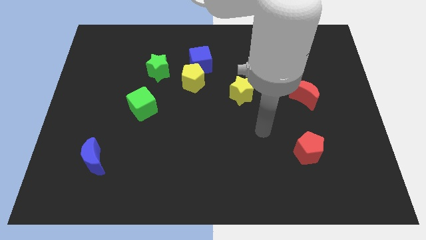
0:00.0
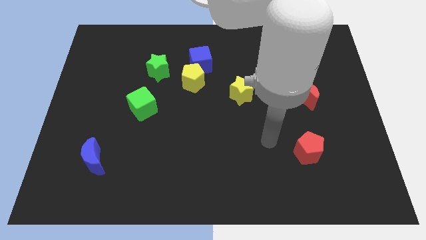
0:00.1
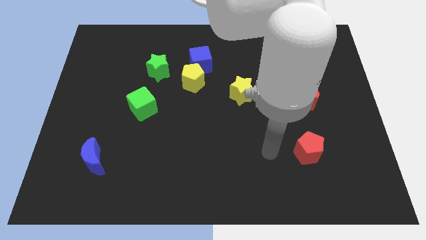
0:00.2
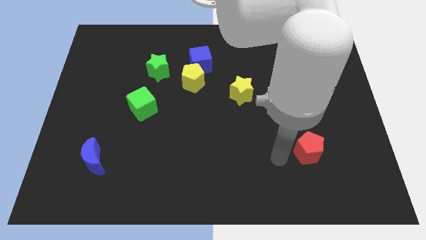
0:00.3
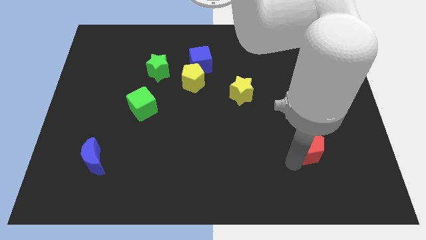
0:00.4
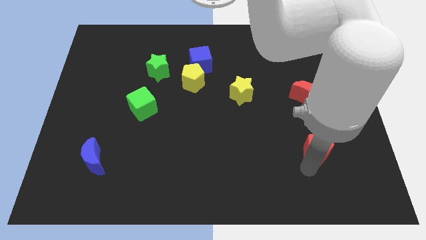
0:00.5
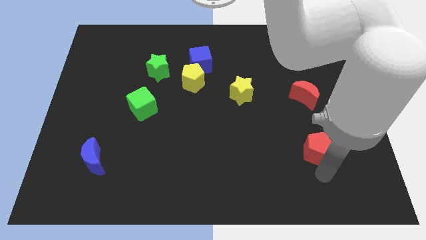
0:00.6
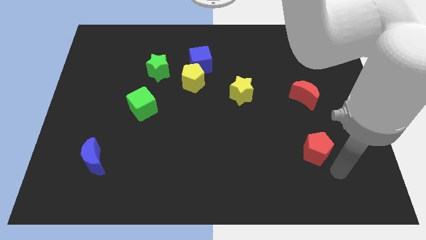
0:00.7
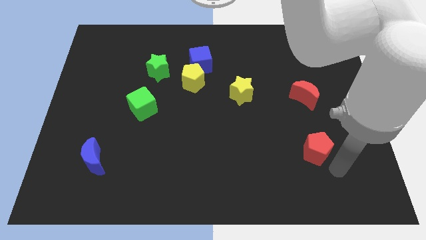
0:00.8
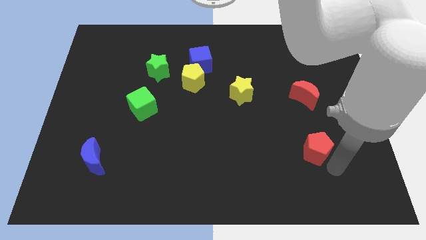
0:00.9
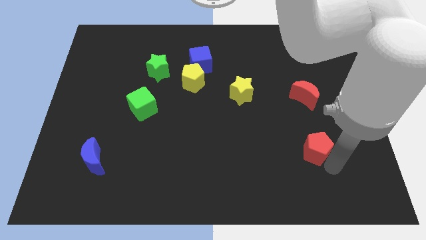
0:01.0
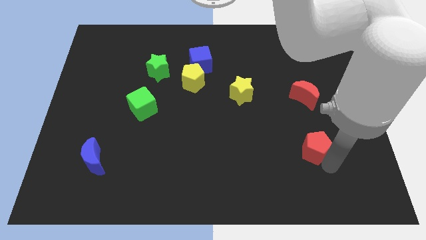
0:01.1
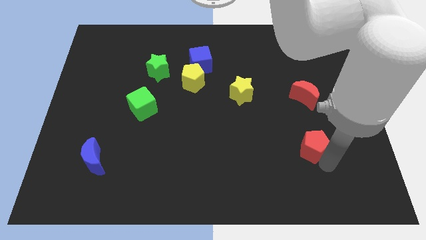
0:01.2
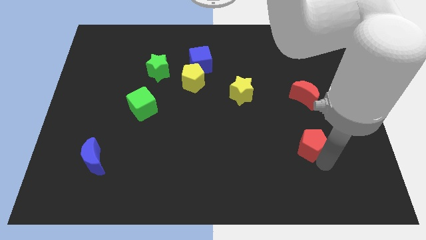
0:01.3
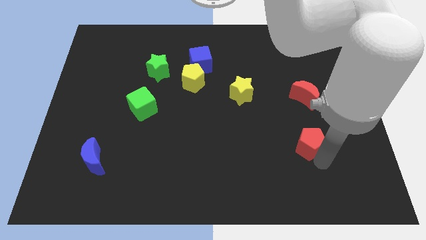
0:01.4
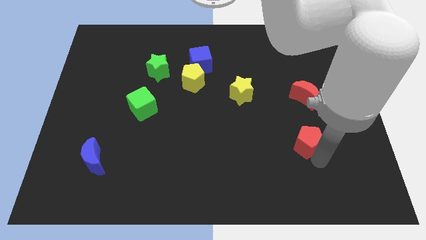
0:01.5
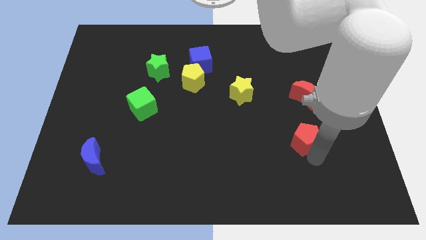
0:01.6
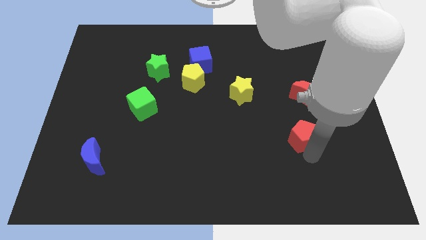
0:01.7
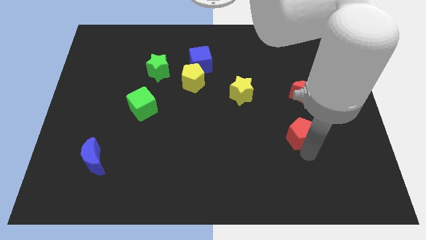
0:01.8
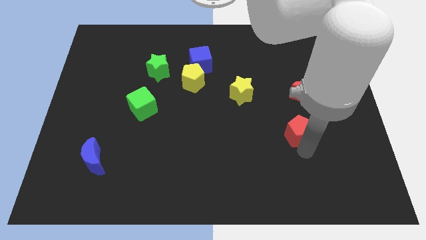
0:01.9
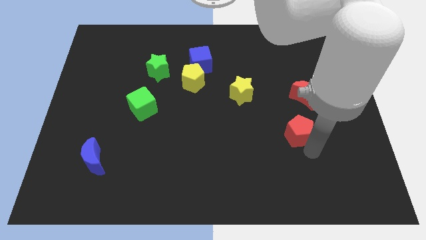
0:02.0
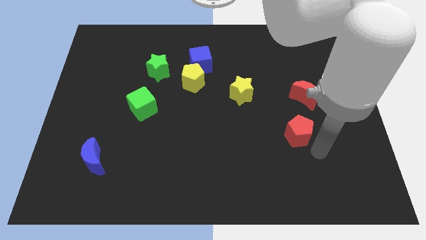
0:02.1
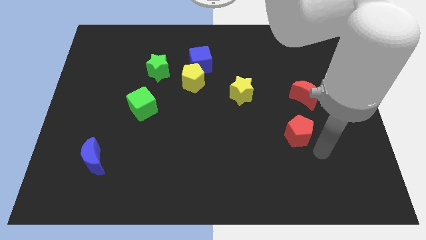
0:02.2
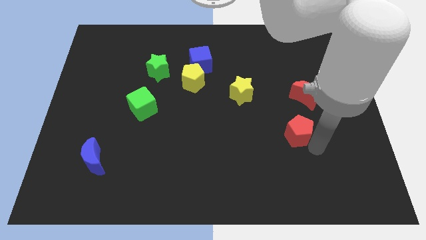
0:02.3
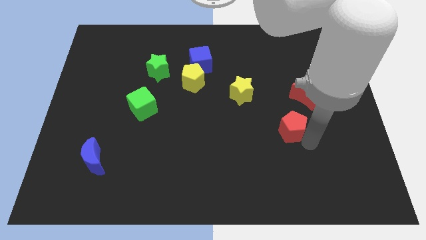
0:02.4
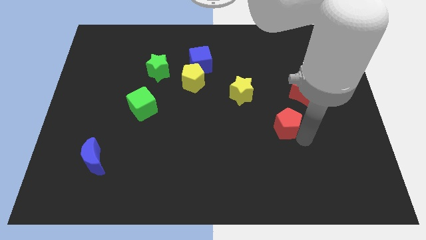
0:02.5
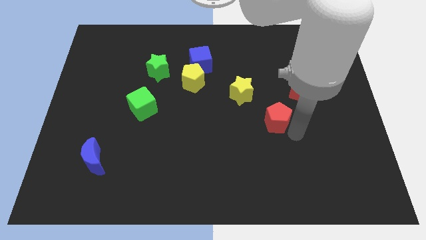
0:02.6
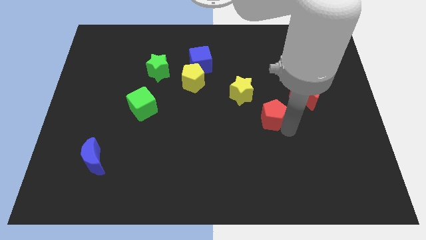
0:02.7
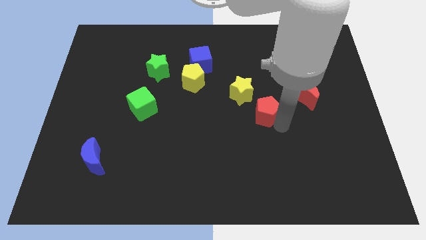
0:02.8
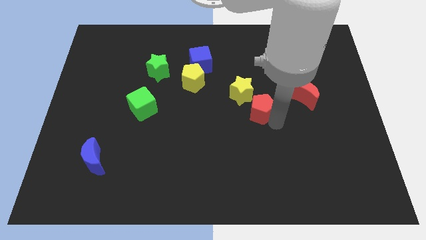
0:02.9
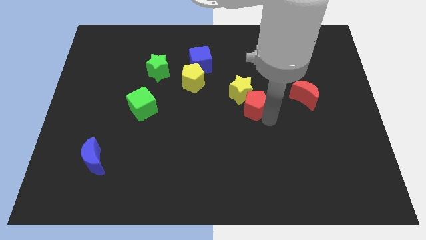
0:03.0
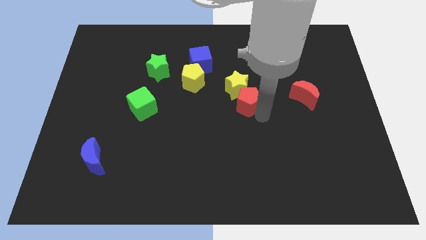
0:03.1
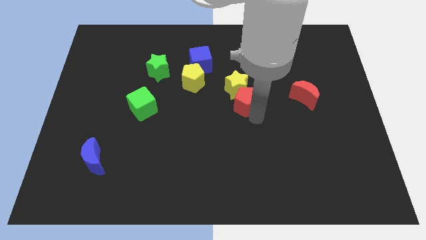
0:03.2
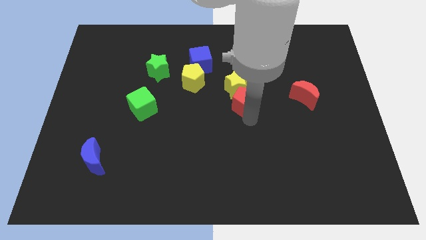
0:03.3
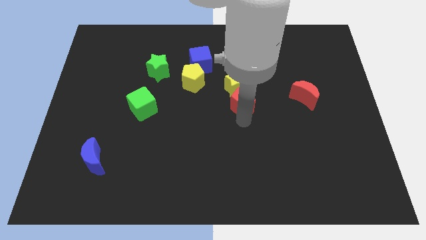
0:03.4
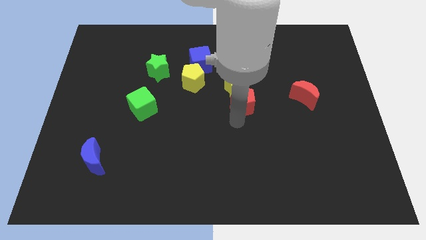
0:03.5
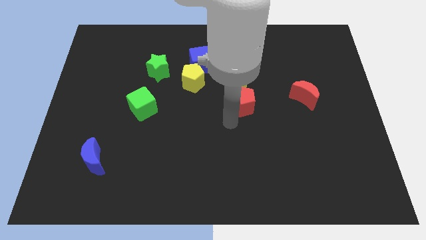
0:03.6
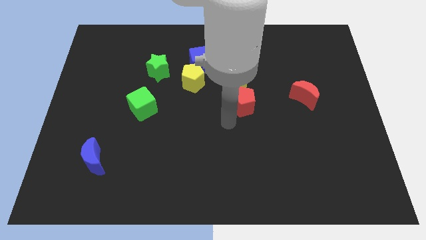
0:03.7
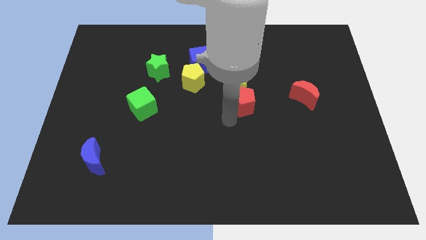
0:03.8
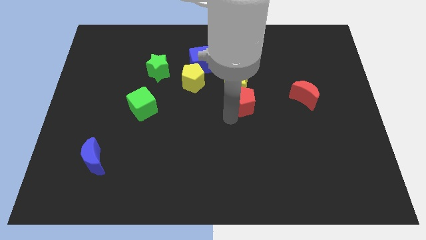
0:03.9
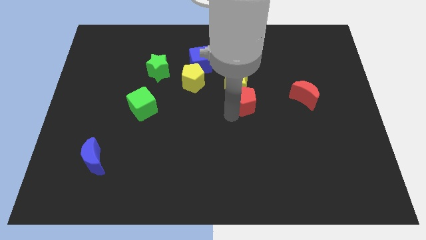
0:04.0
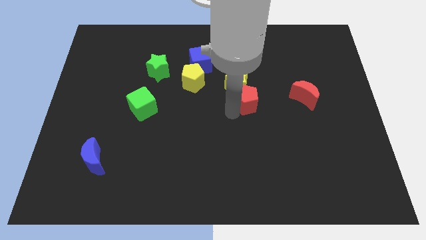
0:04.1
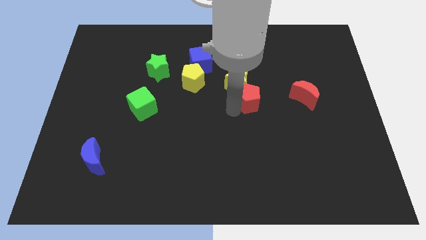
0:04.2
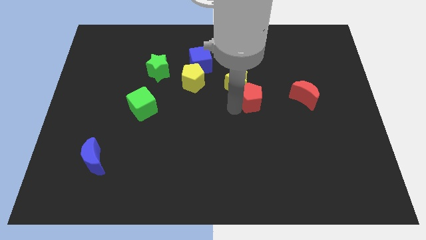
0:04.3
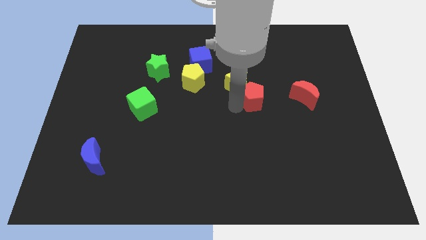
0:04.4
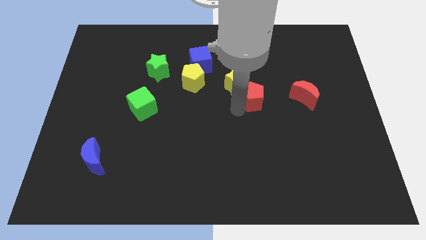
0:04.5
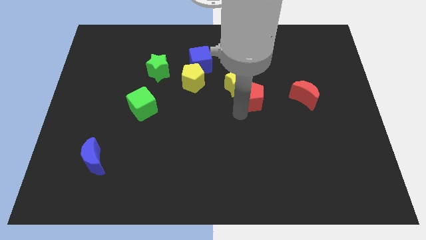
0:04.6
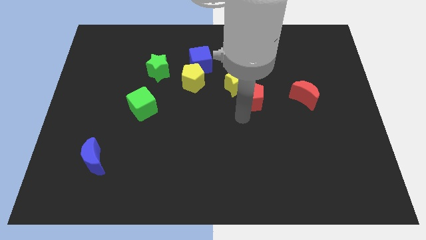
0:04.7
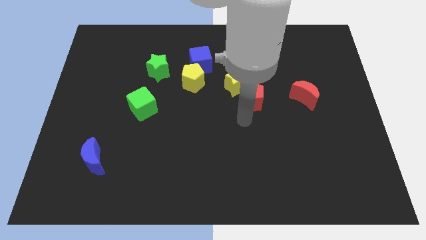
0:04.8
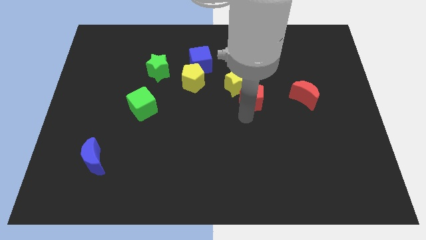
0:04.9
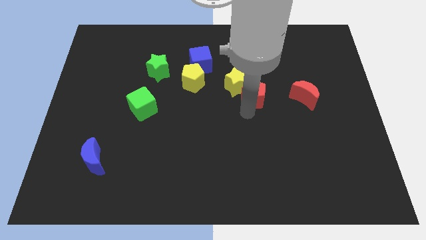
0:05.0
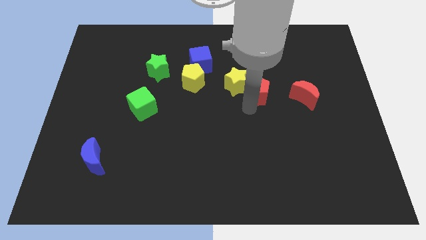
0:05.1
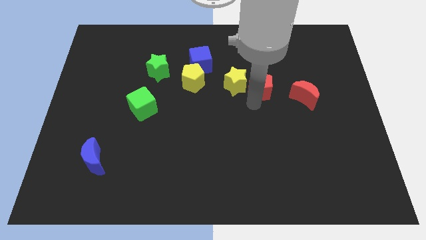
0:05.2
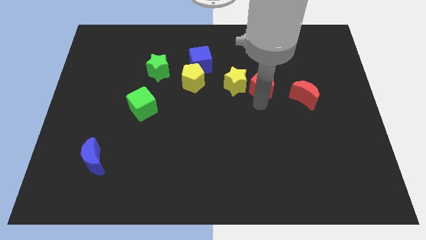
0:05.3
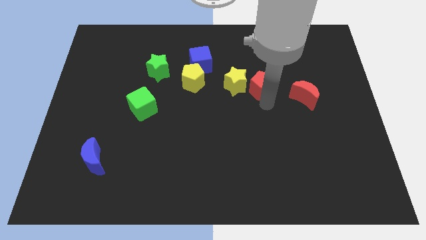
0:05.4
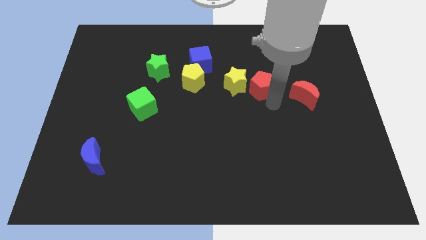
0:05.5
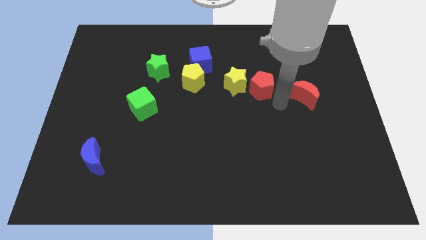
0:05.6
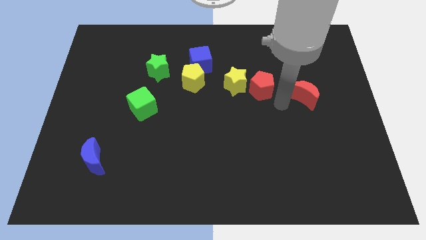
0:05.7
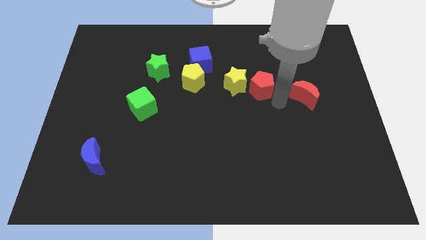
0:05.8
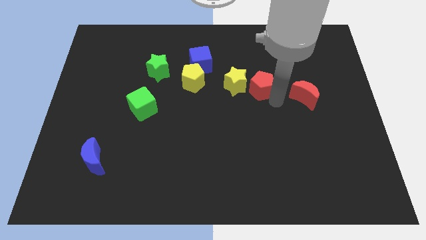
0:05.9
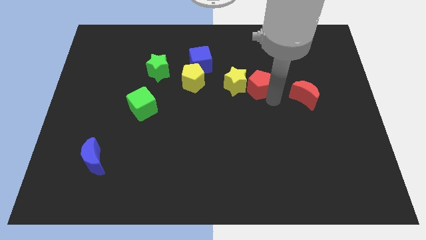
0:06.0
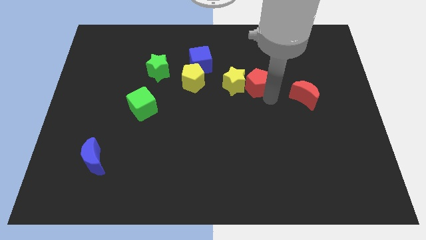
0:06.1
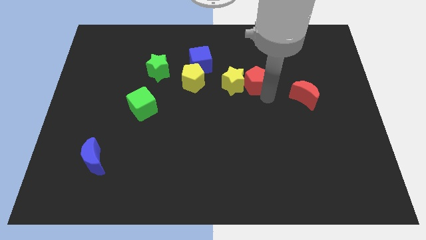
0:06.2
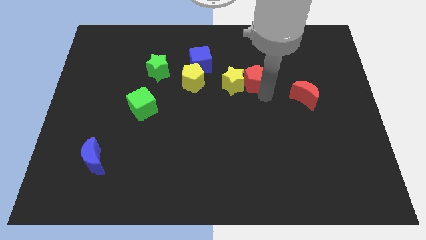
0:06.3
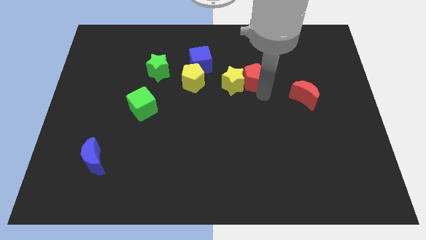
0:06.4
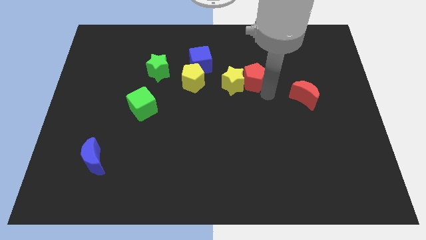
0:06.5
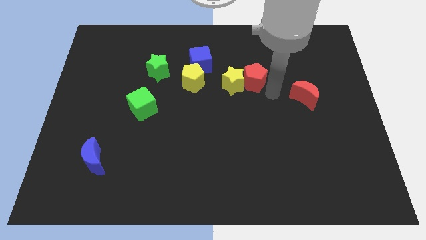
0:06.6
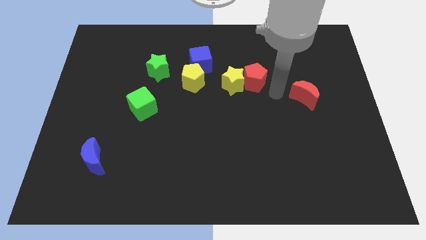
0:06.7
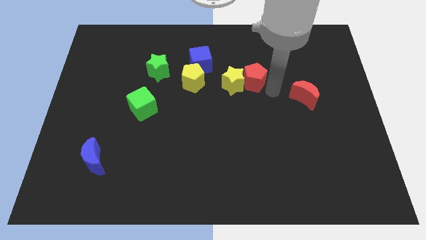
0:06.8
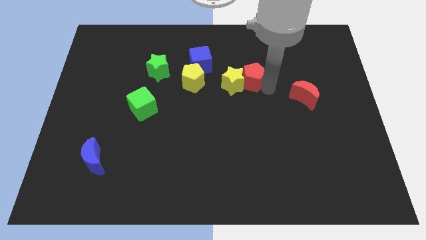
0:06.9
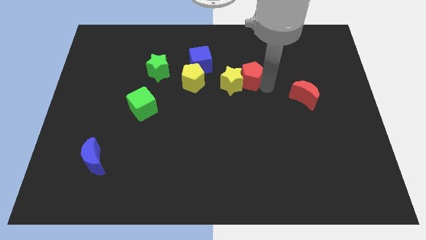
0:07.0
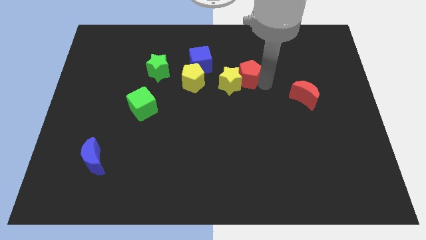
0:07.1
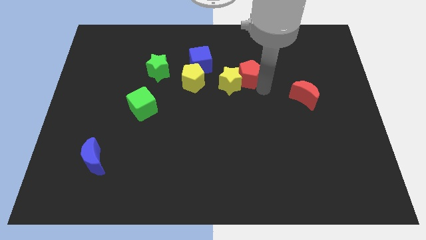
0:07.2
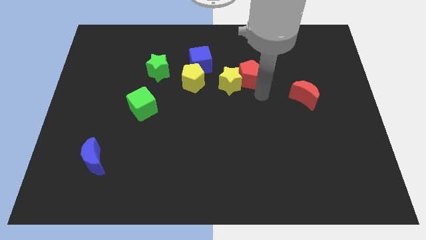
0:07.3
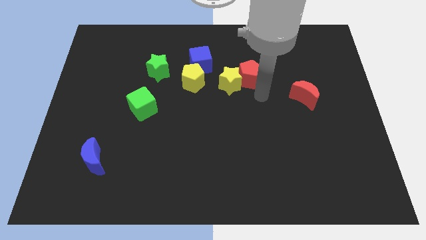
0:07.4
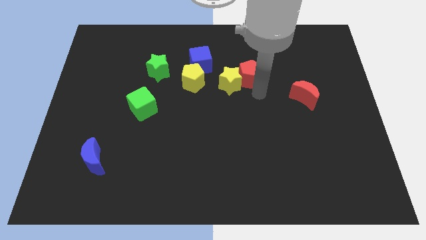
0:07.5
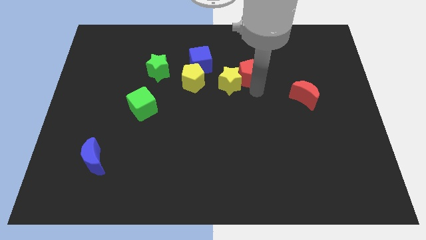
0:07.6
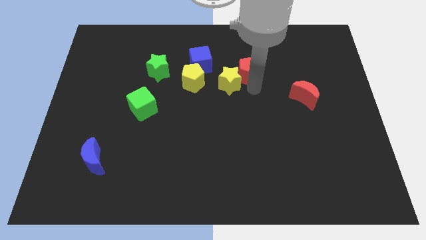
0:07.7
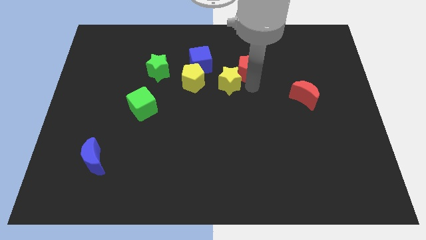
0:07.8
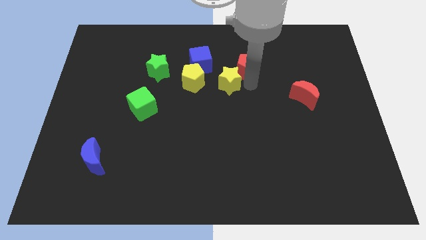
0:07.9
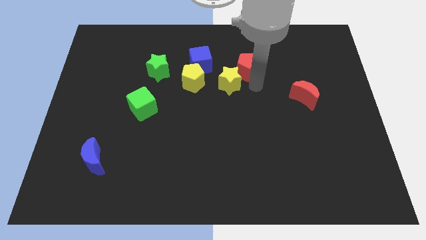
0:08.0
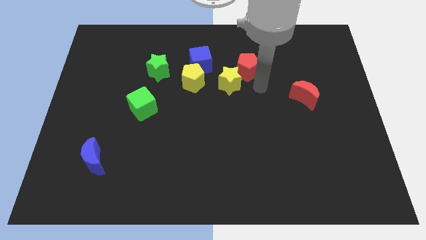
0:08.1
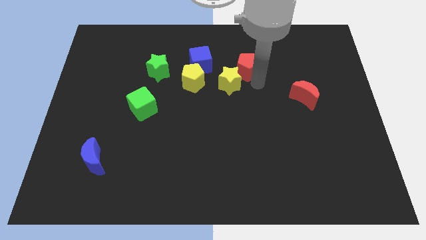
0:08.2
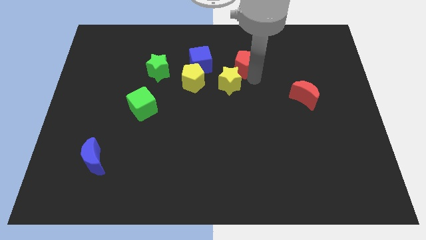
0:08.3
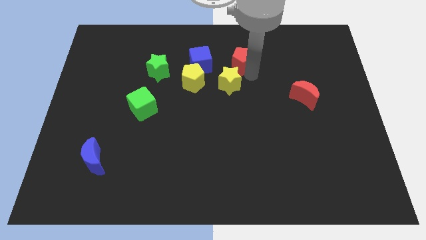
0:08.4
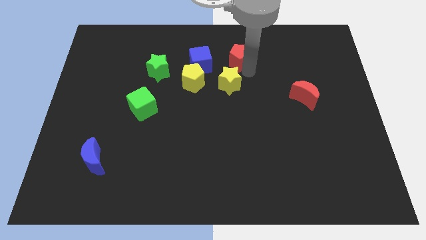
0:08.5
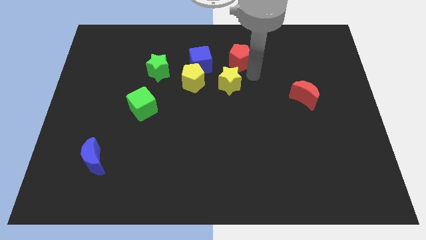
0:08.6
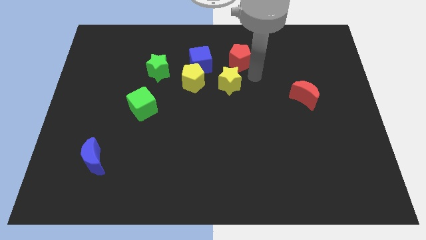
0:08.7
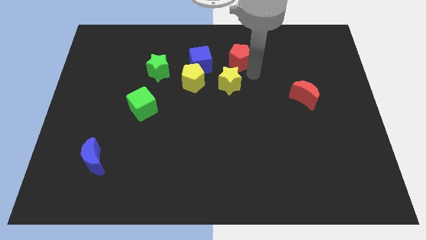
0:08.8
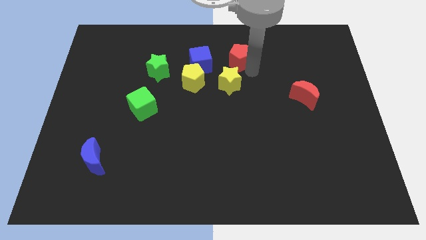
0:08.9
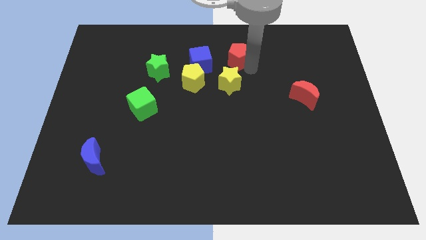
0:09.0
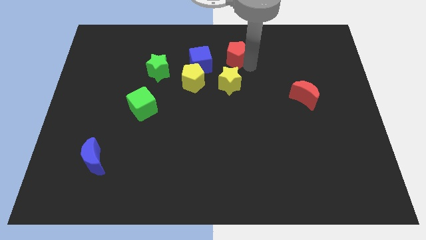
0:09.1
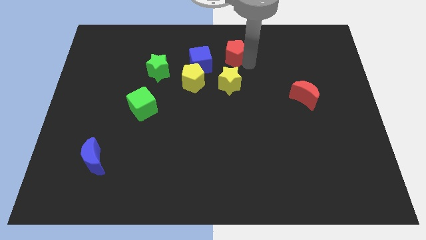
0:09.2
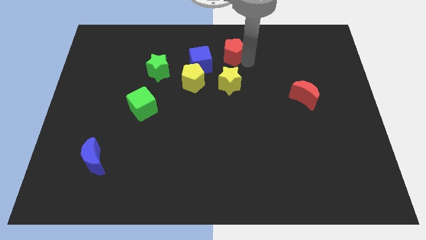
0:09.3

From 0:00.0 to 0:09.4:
move the red pentagon to the towards your base
